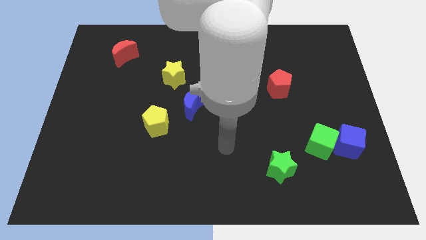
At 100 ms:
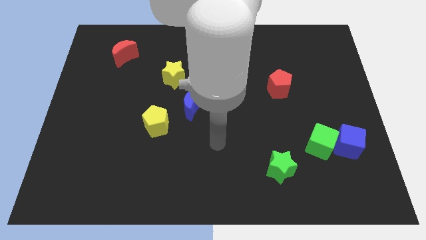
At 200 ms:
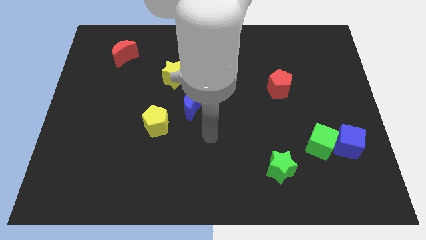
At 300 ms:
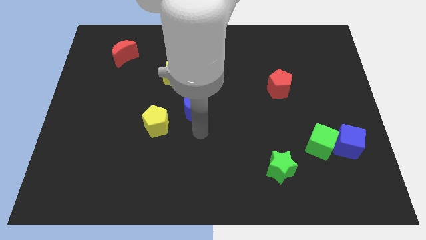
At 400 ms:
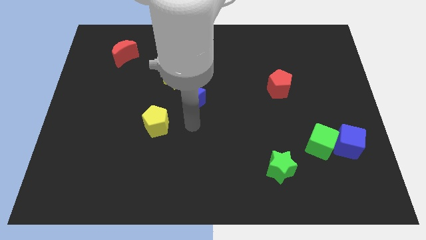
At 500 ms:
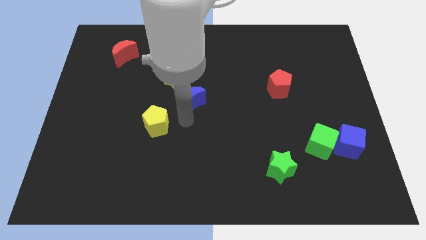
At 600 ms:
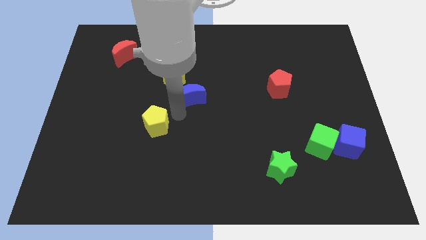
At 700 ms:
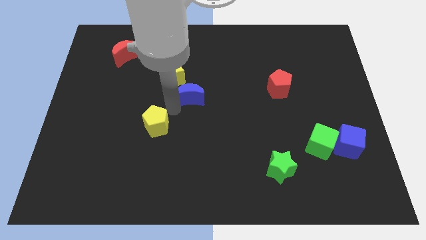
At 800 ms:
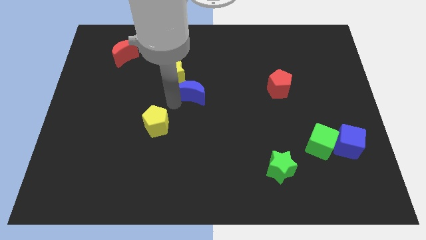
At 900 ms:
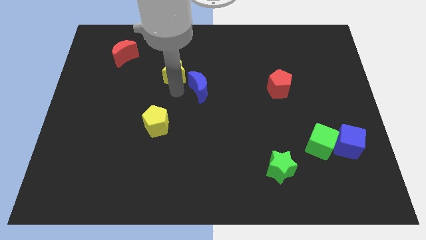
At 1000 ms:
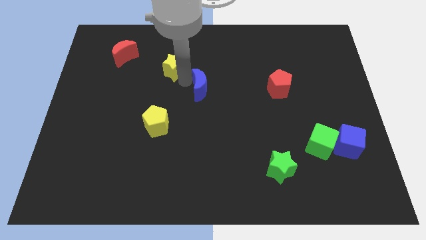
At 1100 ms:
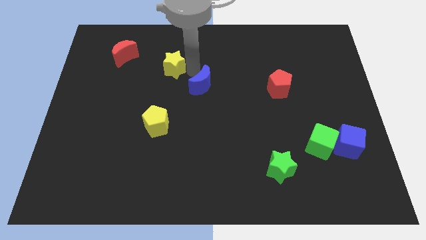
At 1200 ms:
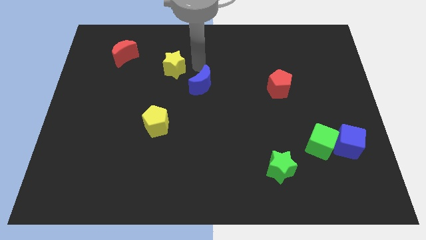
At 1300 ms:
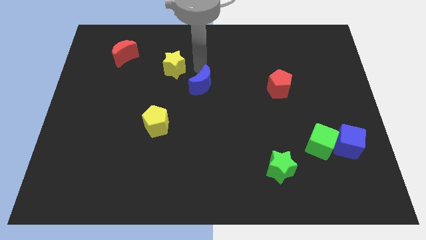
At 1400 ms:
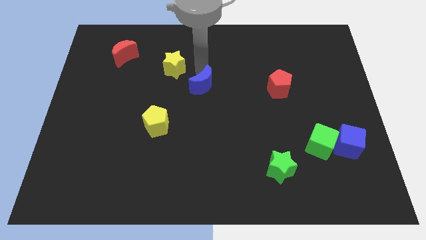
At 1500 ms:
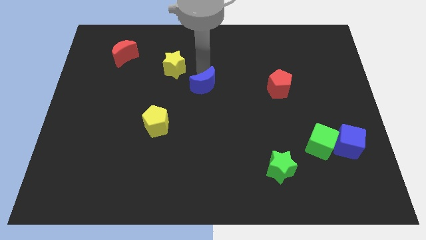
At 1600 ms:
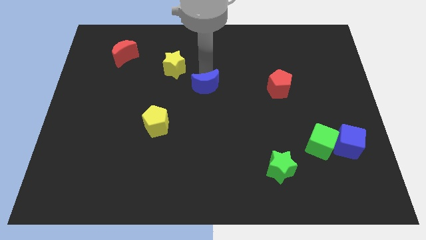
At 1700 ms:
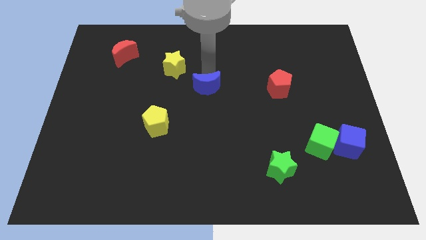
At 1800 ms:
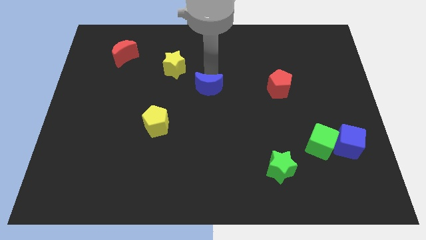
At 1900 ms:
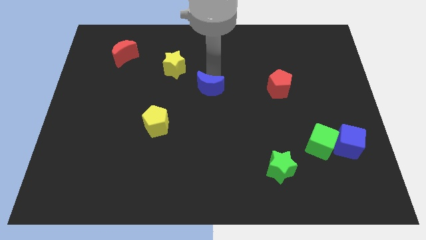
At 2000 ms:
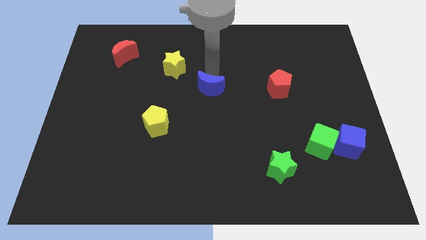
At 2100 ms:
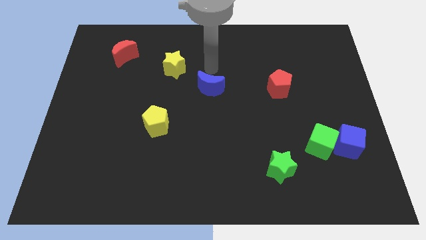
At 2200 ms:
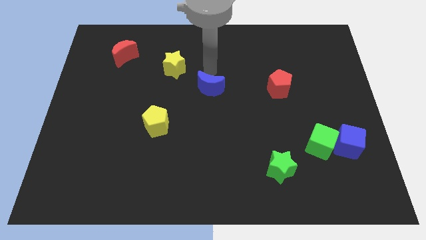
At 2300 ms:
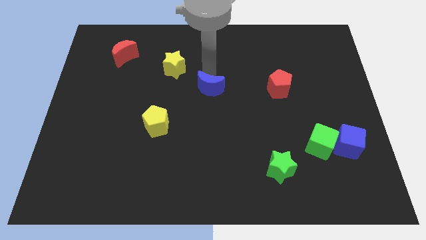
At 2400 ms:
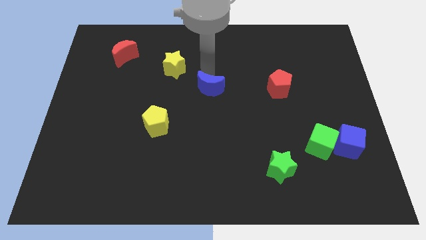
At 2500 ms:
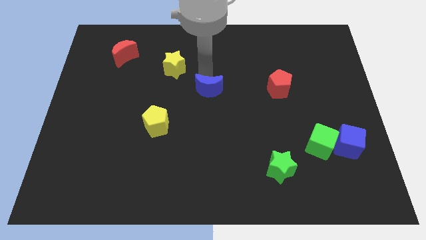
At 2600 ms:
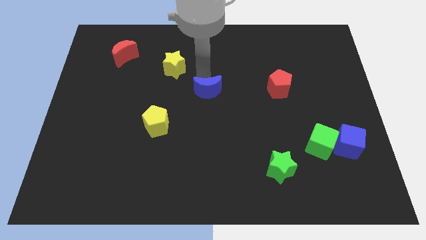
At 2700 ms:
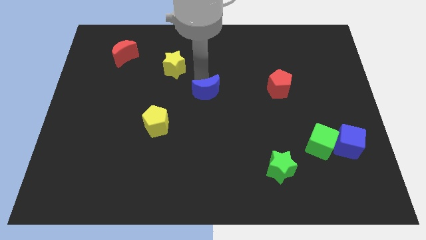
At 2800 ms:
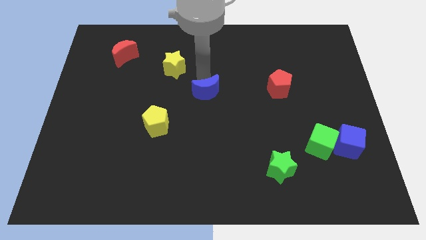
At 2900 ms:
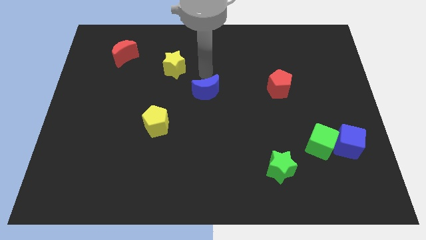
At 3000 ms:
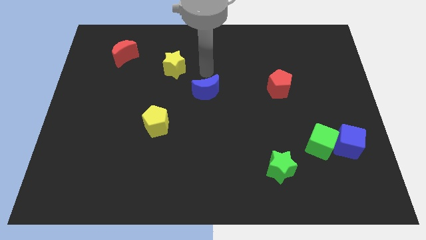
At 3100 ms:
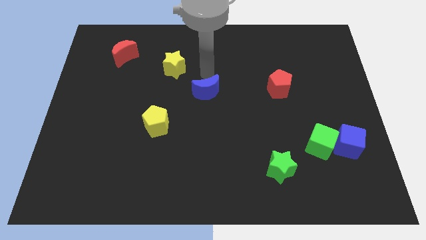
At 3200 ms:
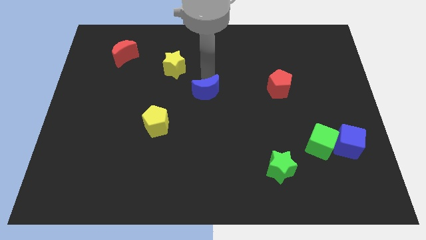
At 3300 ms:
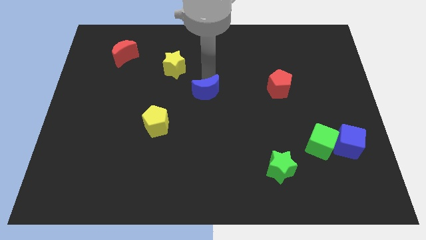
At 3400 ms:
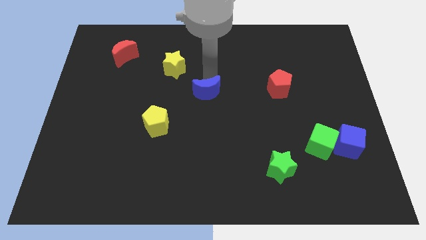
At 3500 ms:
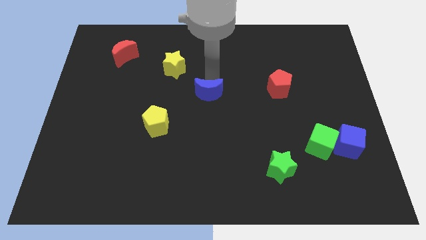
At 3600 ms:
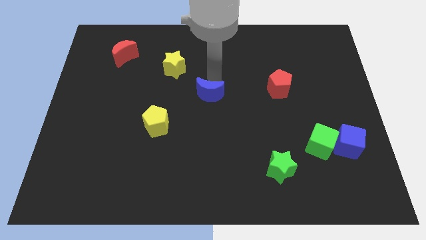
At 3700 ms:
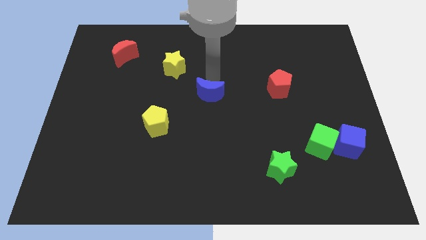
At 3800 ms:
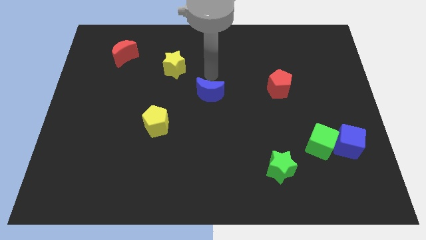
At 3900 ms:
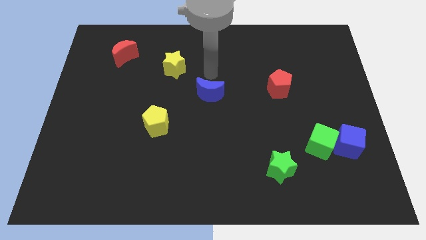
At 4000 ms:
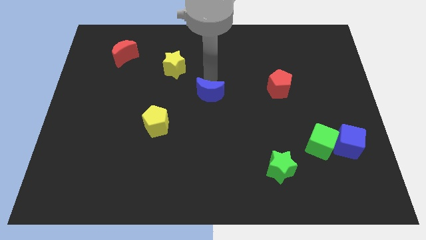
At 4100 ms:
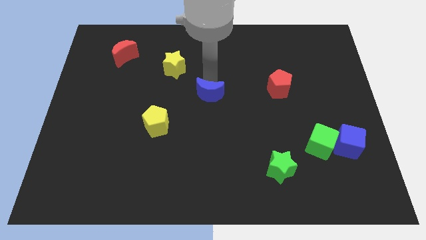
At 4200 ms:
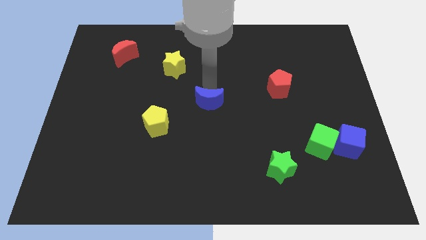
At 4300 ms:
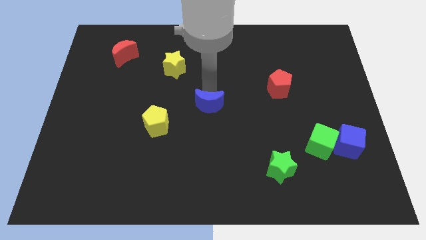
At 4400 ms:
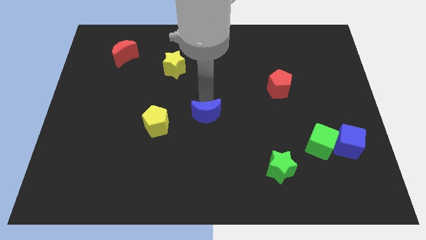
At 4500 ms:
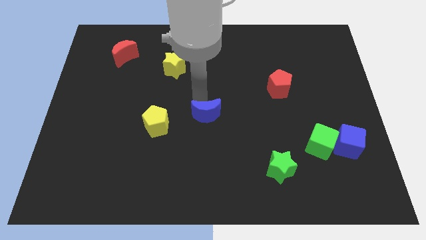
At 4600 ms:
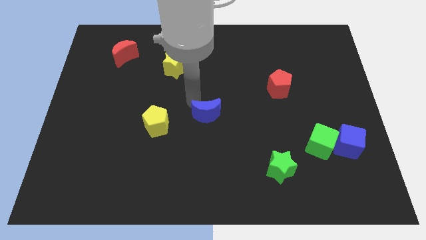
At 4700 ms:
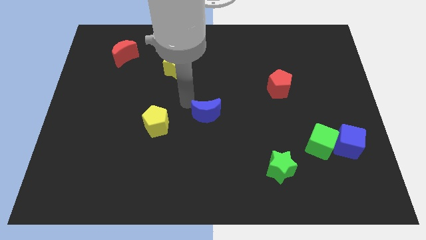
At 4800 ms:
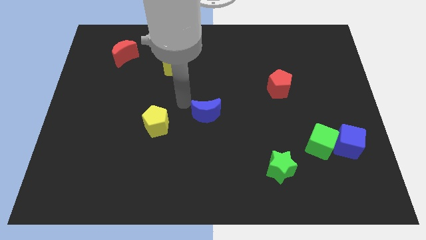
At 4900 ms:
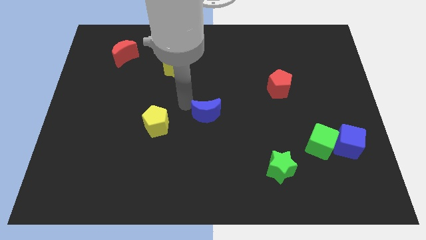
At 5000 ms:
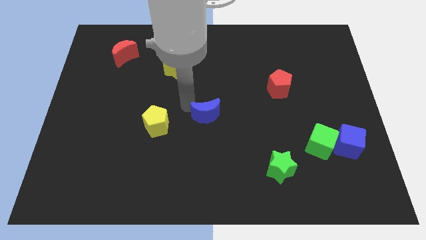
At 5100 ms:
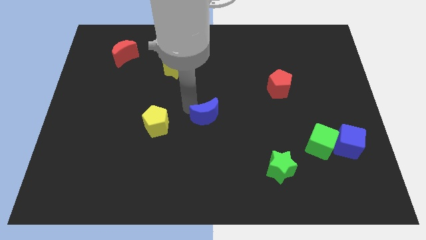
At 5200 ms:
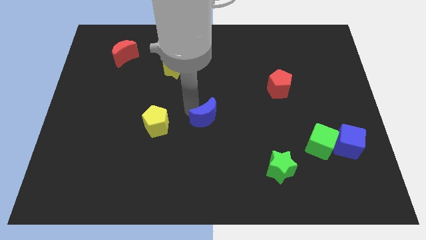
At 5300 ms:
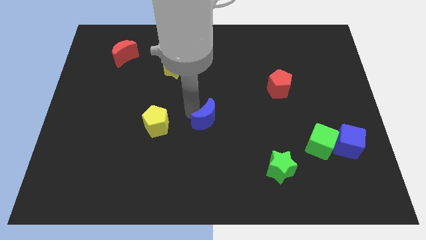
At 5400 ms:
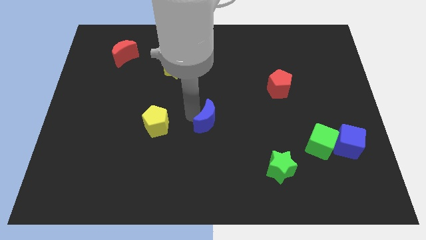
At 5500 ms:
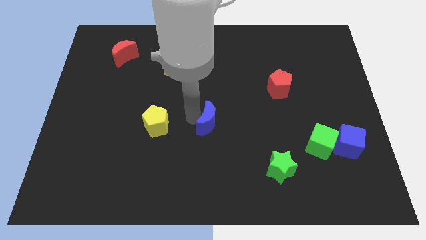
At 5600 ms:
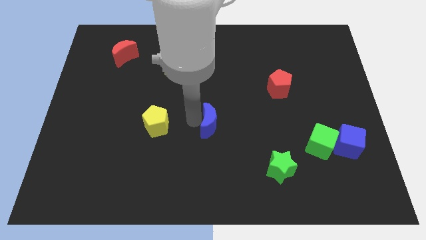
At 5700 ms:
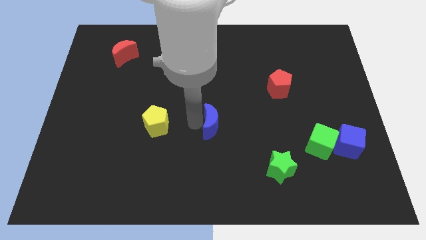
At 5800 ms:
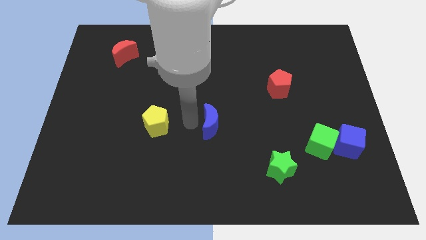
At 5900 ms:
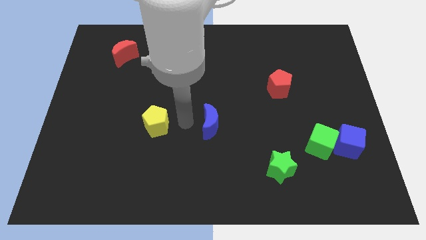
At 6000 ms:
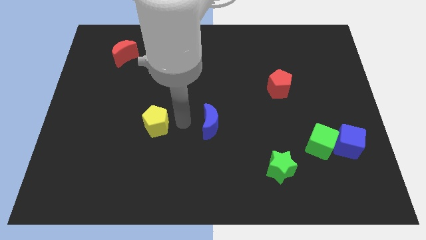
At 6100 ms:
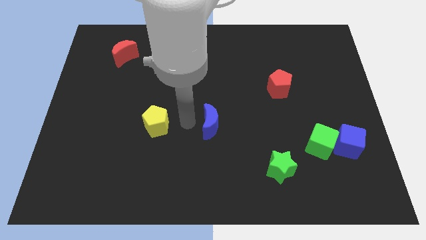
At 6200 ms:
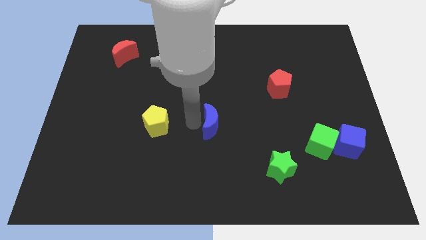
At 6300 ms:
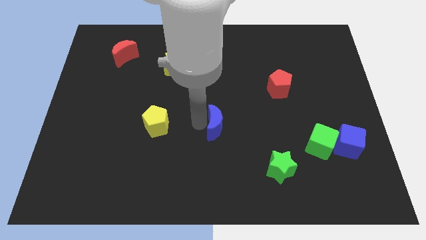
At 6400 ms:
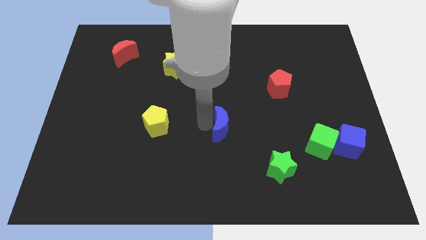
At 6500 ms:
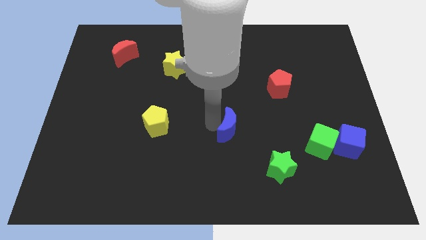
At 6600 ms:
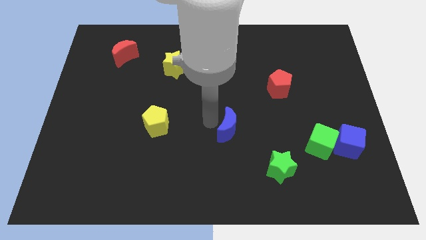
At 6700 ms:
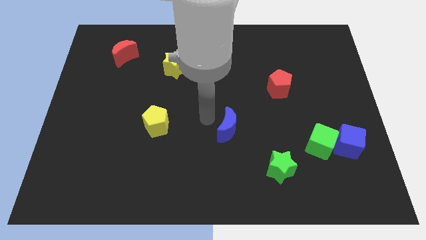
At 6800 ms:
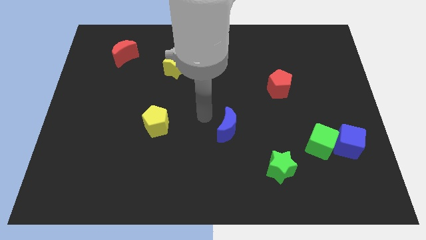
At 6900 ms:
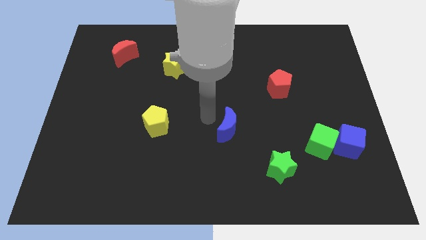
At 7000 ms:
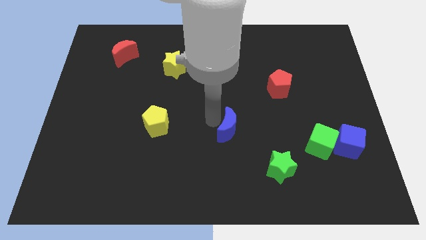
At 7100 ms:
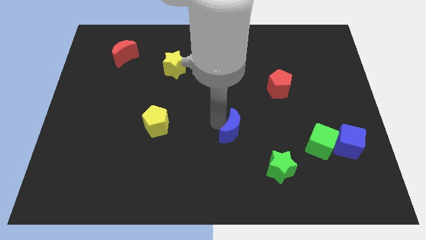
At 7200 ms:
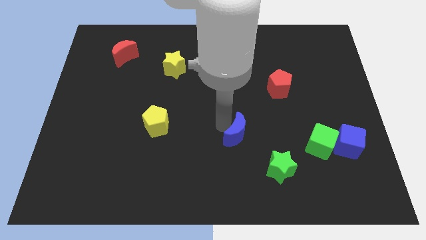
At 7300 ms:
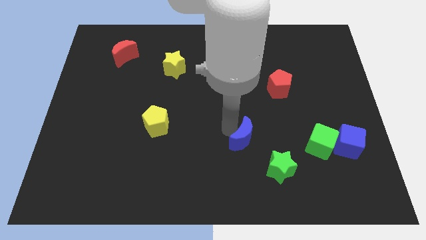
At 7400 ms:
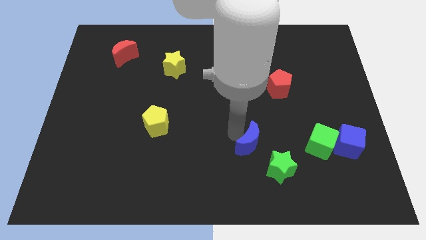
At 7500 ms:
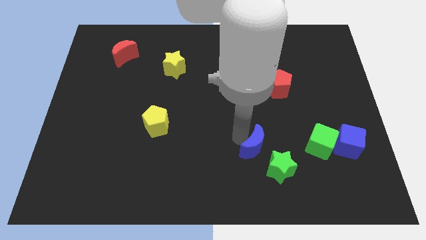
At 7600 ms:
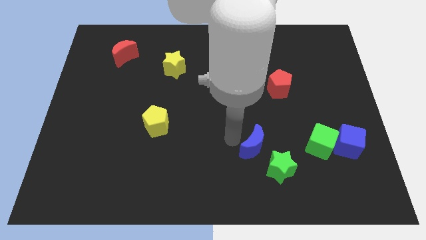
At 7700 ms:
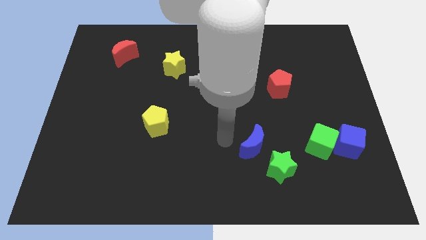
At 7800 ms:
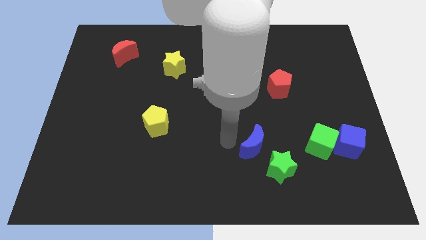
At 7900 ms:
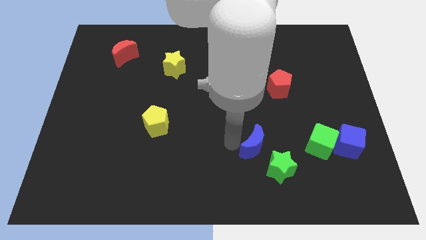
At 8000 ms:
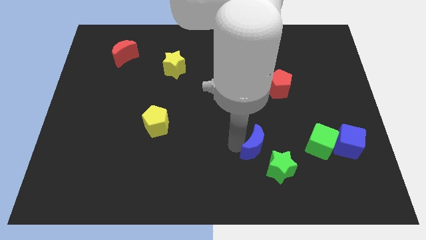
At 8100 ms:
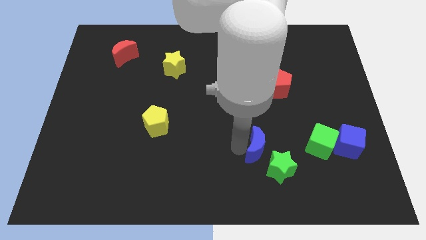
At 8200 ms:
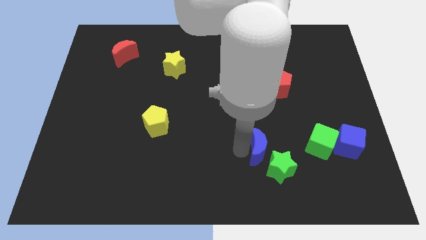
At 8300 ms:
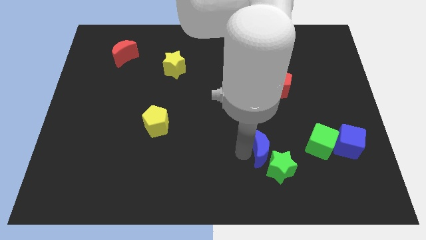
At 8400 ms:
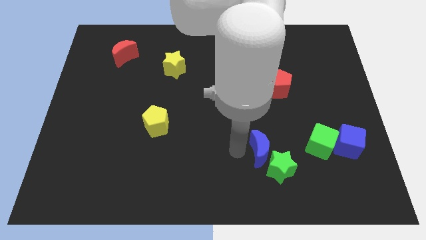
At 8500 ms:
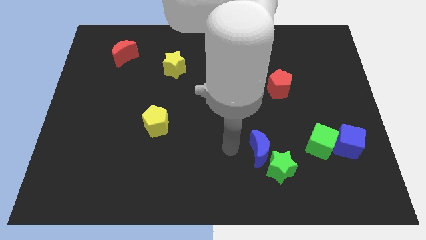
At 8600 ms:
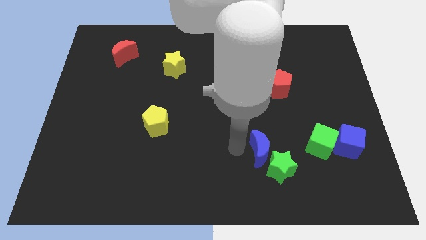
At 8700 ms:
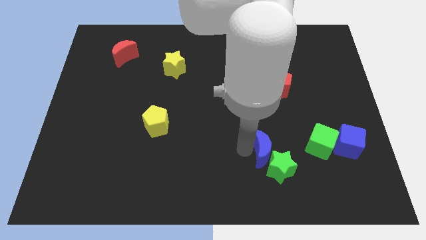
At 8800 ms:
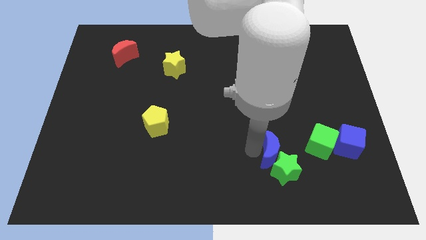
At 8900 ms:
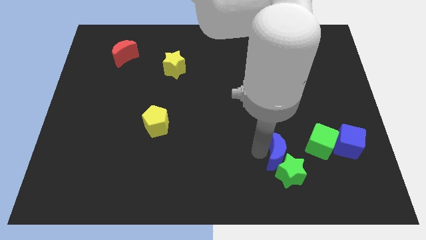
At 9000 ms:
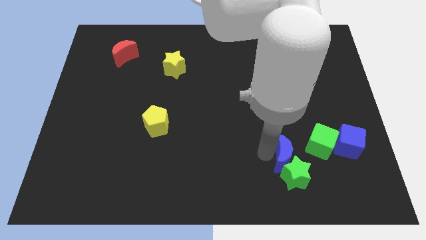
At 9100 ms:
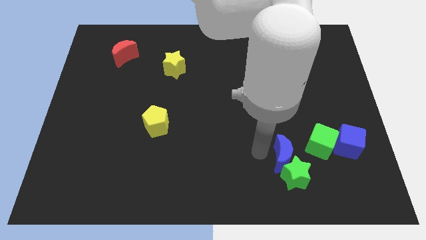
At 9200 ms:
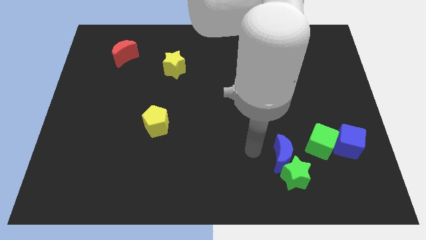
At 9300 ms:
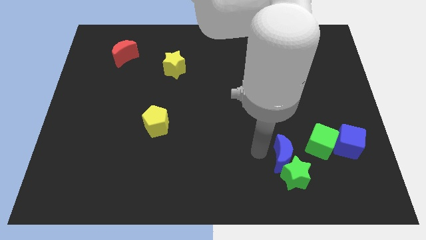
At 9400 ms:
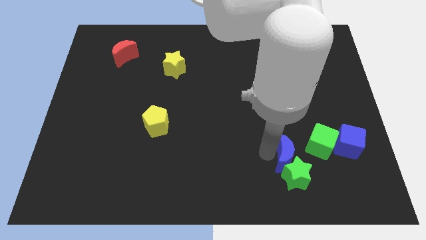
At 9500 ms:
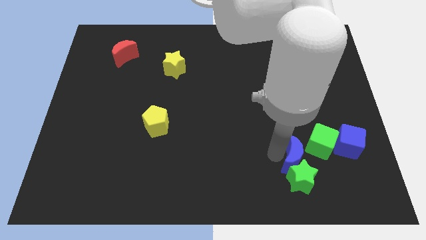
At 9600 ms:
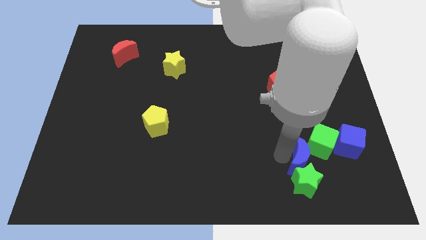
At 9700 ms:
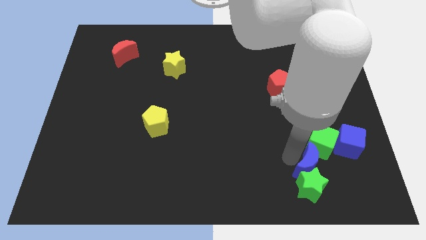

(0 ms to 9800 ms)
put the blue moon to the bottom left of the blue cube
